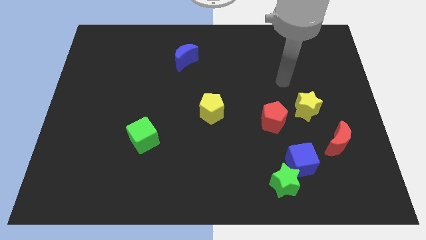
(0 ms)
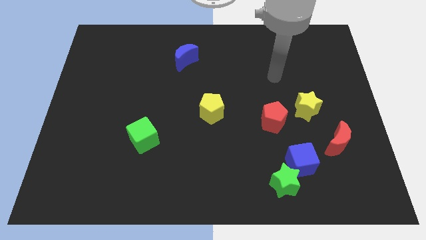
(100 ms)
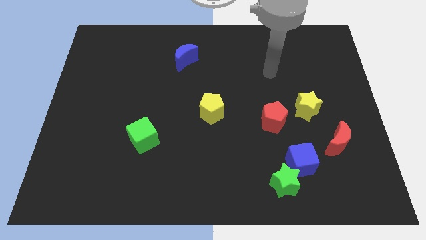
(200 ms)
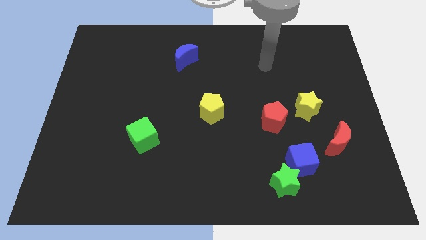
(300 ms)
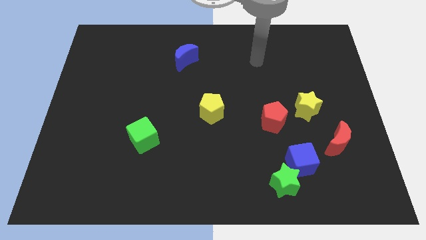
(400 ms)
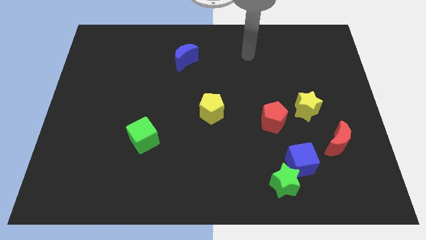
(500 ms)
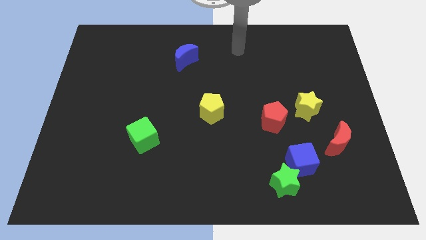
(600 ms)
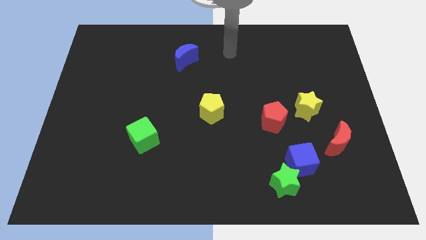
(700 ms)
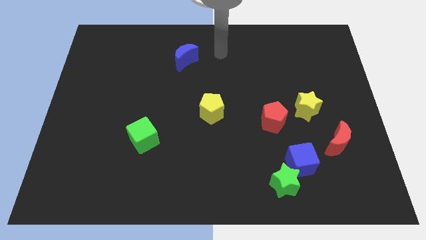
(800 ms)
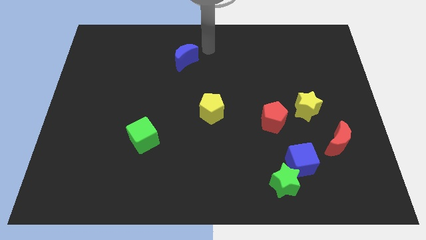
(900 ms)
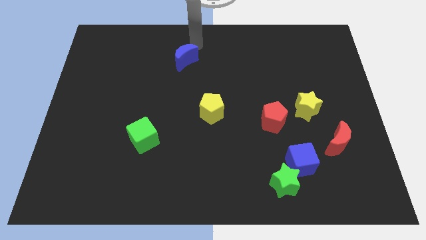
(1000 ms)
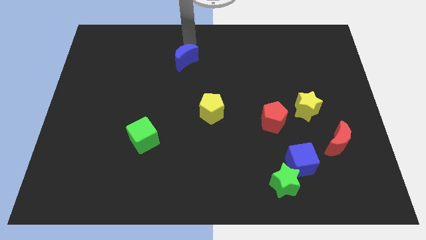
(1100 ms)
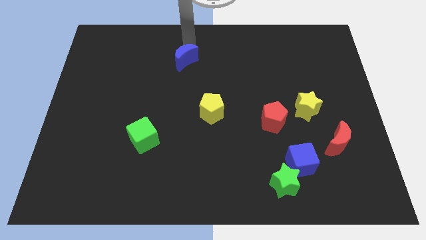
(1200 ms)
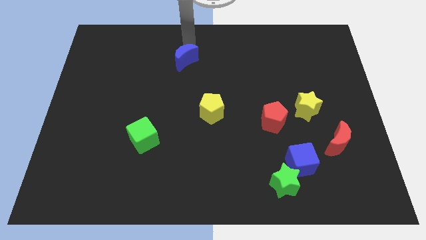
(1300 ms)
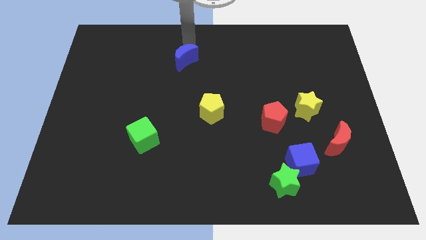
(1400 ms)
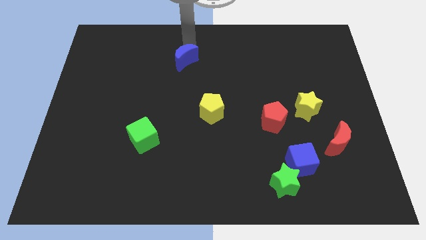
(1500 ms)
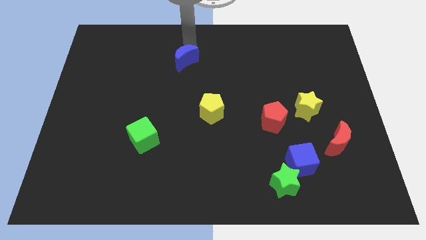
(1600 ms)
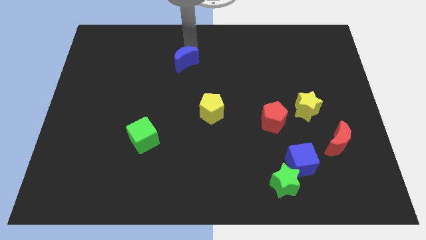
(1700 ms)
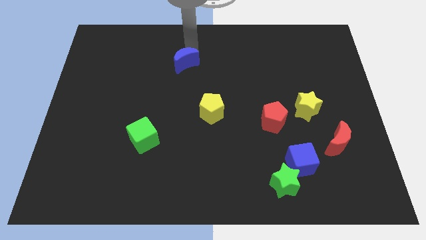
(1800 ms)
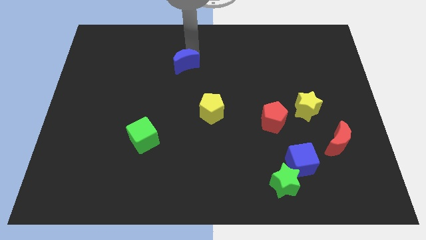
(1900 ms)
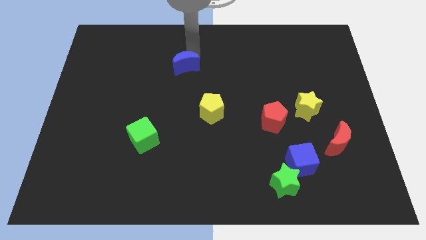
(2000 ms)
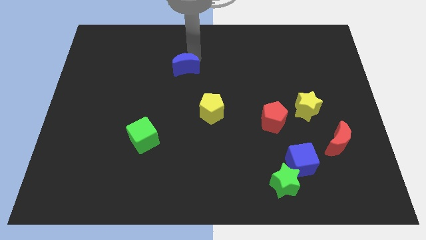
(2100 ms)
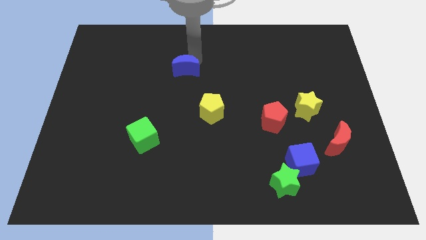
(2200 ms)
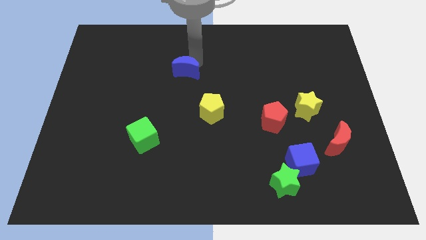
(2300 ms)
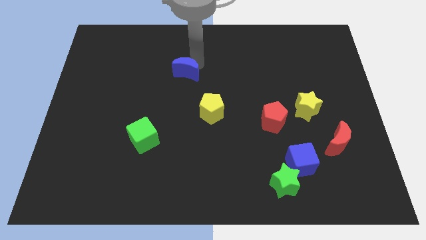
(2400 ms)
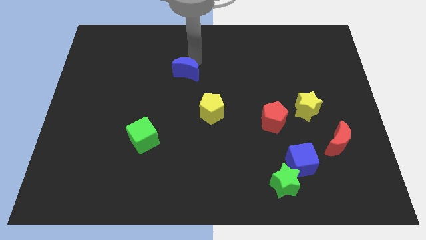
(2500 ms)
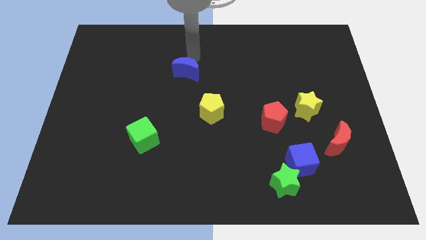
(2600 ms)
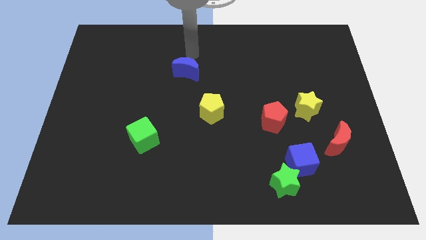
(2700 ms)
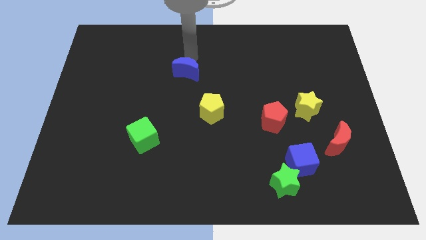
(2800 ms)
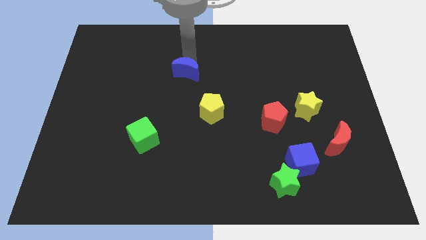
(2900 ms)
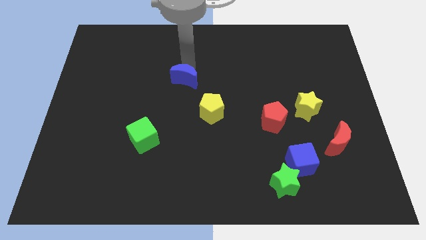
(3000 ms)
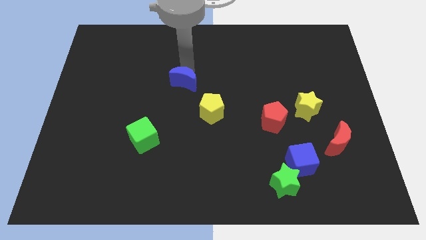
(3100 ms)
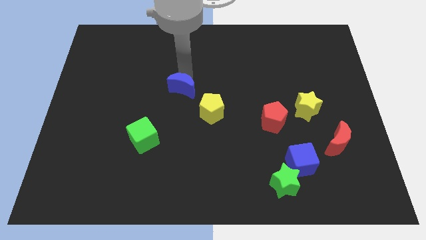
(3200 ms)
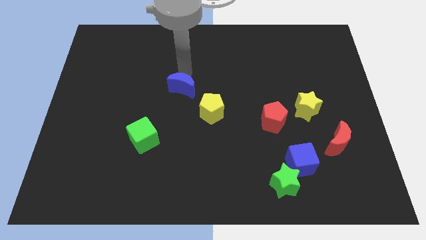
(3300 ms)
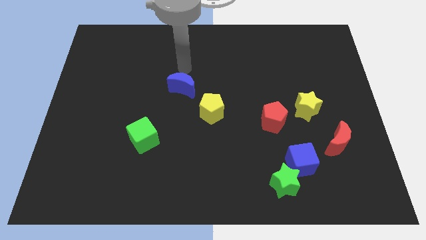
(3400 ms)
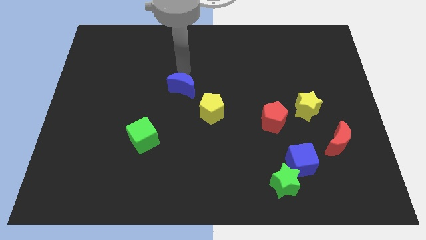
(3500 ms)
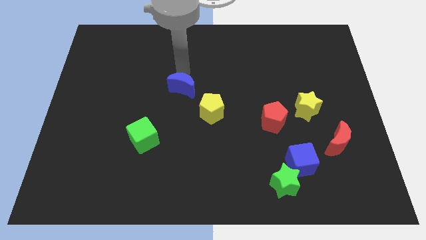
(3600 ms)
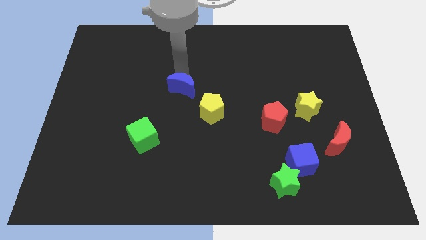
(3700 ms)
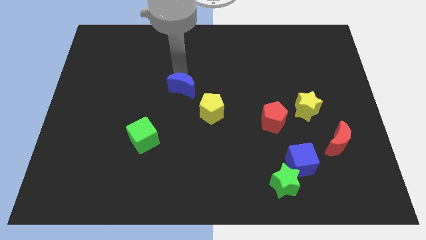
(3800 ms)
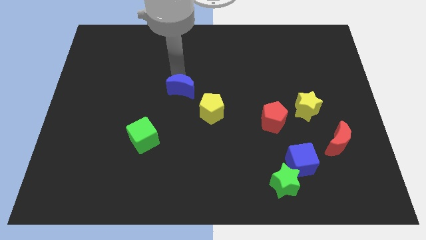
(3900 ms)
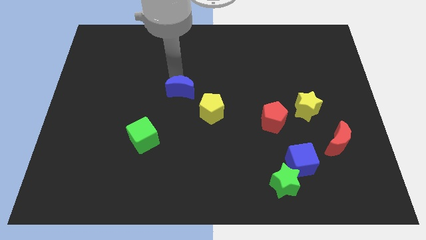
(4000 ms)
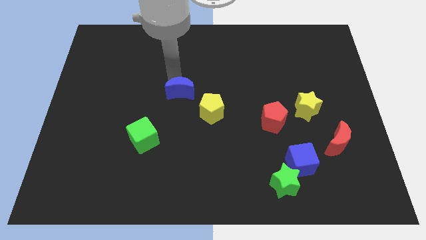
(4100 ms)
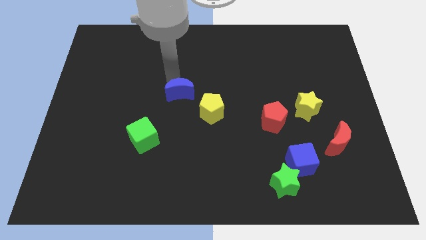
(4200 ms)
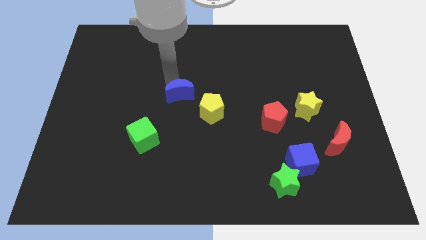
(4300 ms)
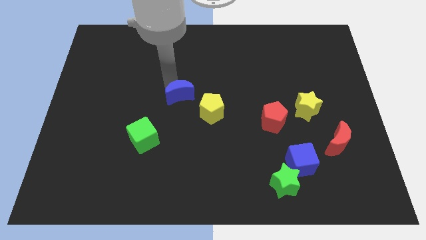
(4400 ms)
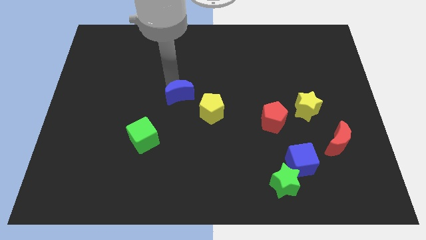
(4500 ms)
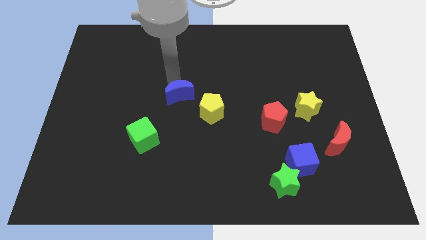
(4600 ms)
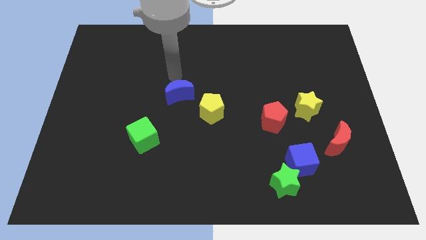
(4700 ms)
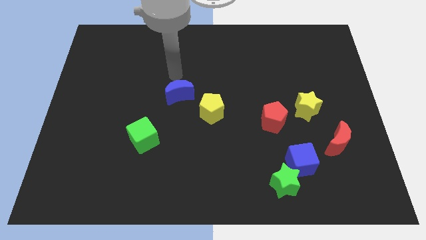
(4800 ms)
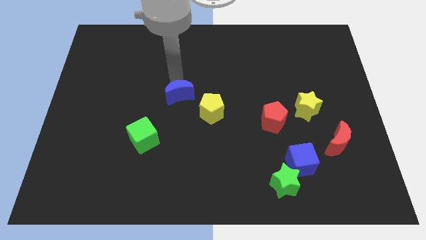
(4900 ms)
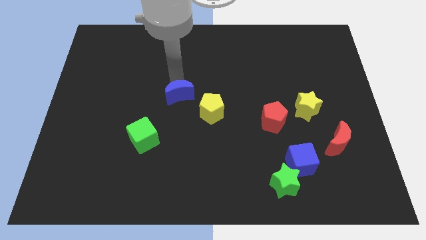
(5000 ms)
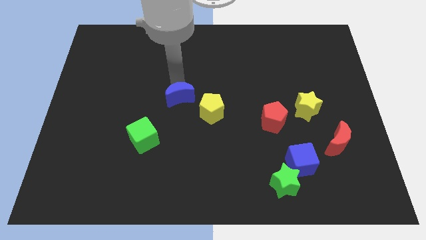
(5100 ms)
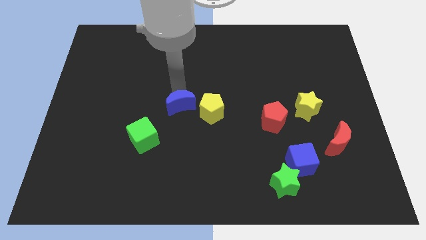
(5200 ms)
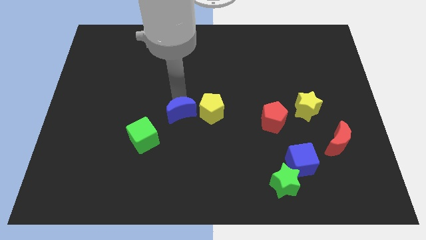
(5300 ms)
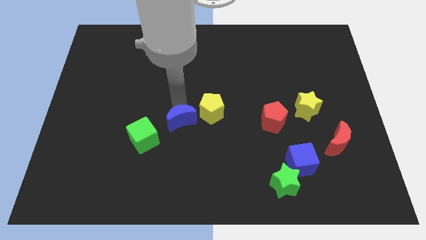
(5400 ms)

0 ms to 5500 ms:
slide the blue moon right of the green cube

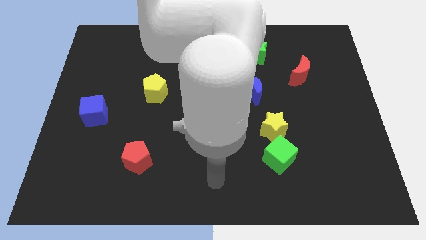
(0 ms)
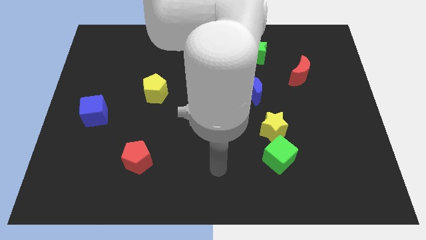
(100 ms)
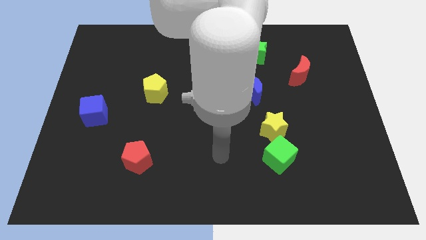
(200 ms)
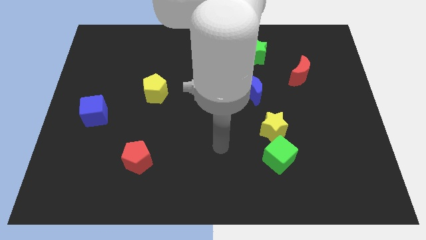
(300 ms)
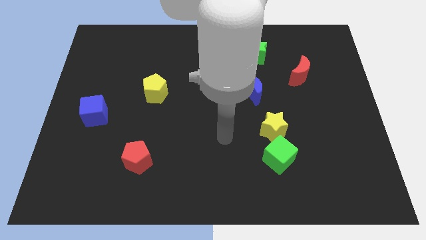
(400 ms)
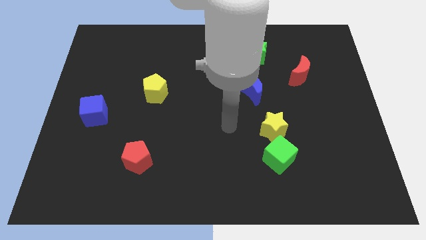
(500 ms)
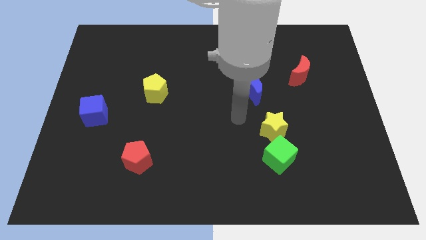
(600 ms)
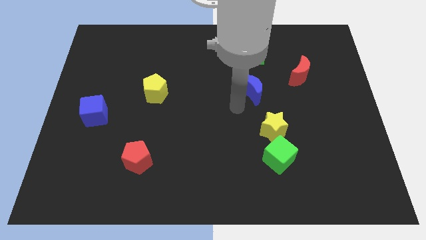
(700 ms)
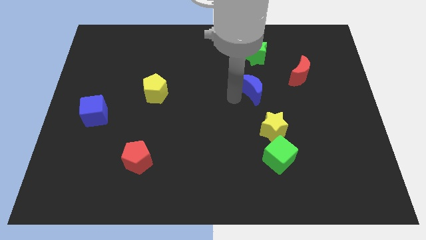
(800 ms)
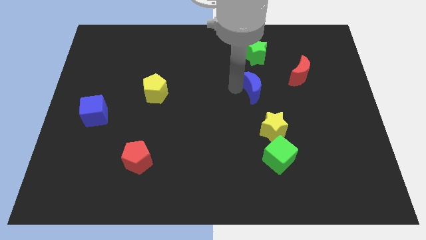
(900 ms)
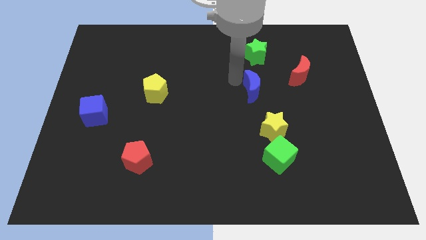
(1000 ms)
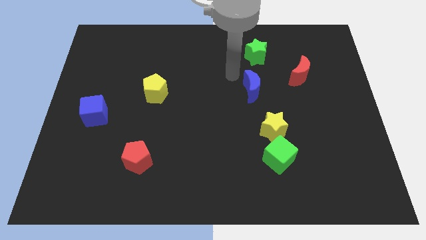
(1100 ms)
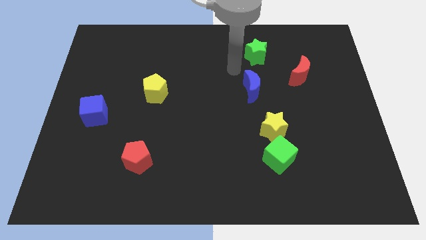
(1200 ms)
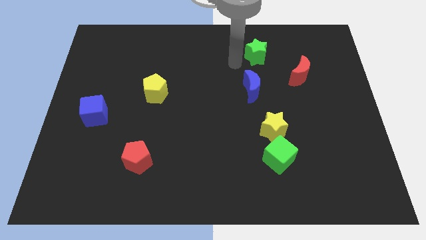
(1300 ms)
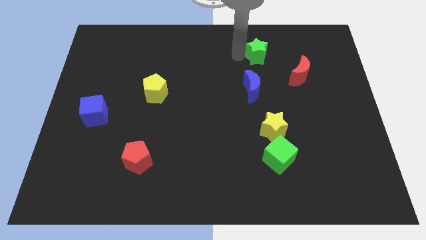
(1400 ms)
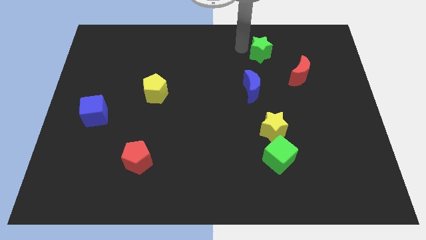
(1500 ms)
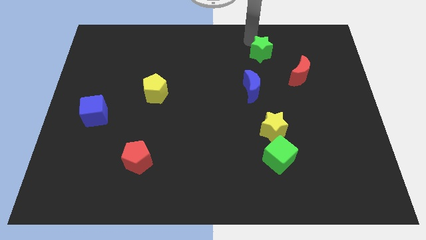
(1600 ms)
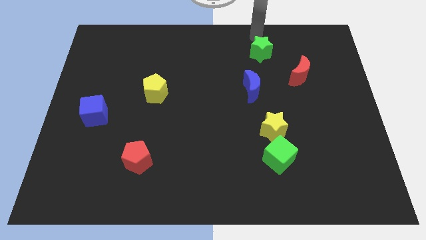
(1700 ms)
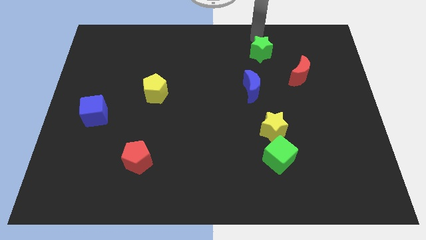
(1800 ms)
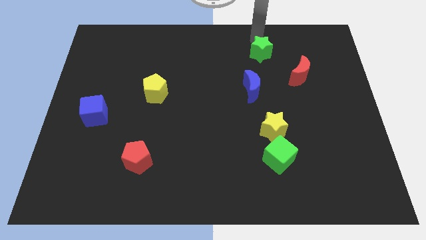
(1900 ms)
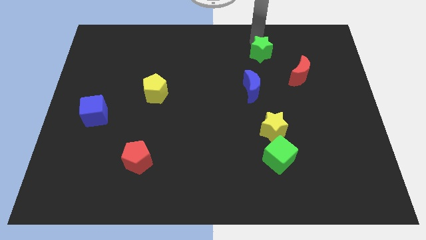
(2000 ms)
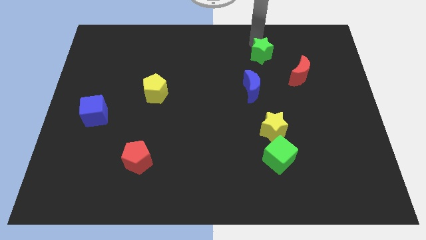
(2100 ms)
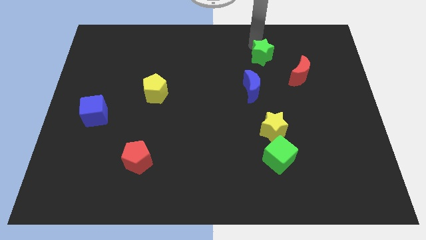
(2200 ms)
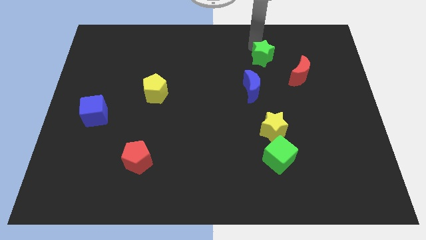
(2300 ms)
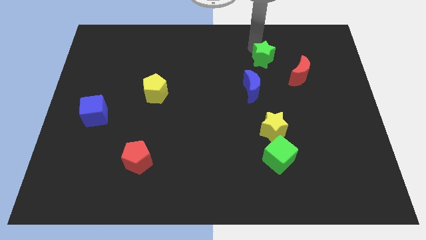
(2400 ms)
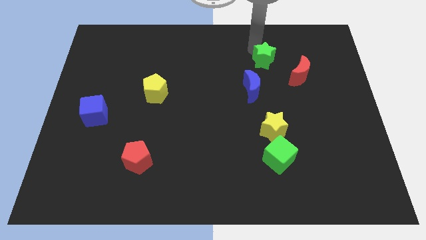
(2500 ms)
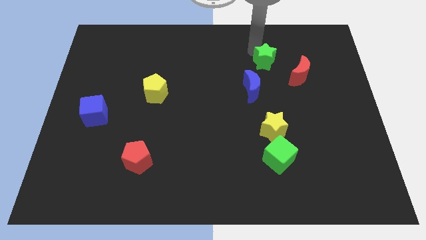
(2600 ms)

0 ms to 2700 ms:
put the green star to the top right of the blue moon
